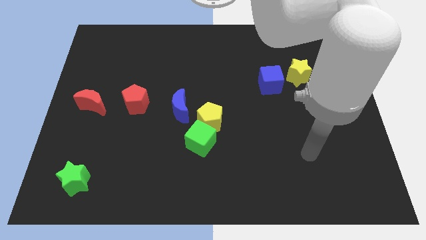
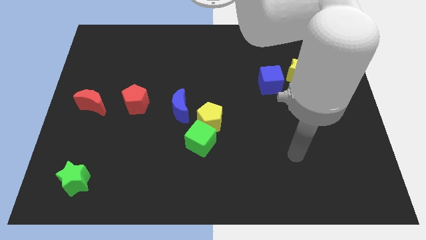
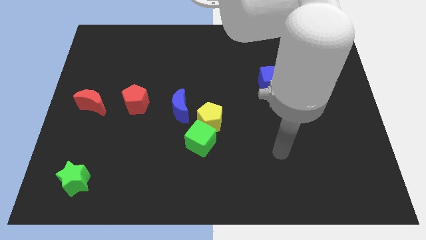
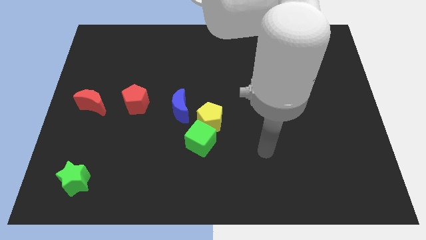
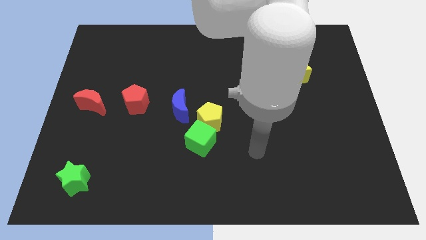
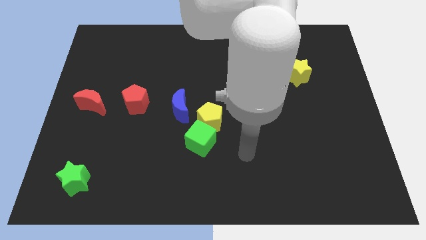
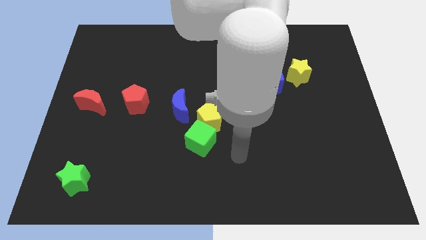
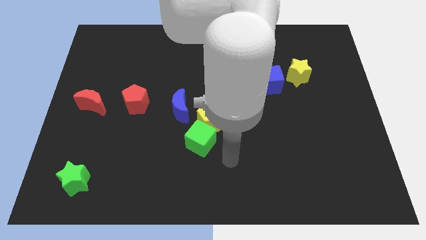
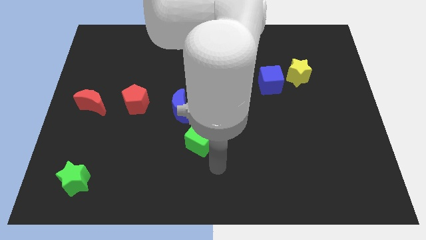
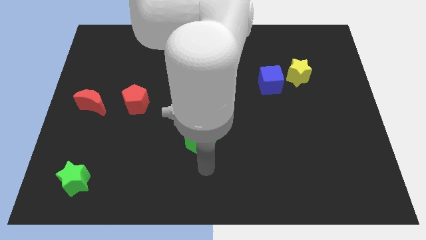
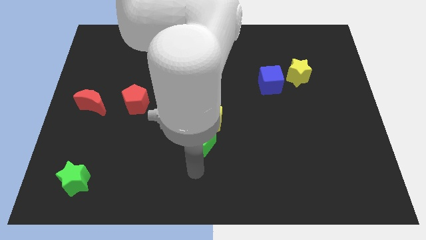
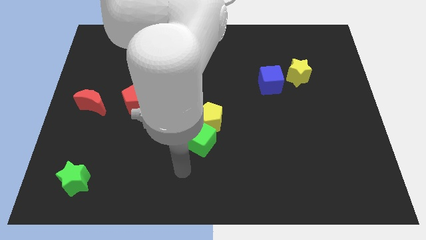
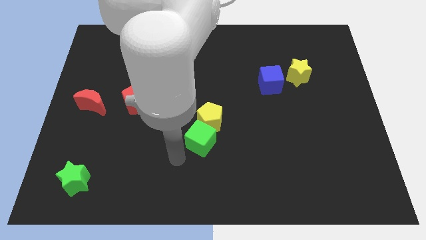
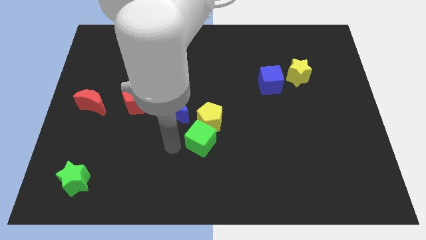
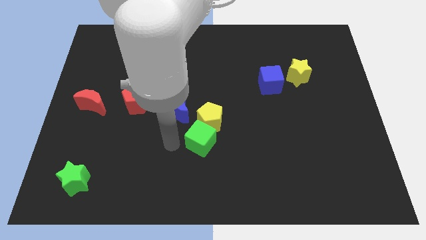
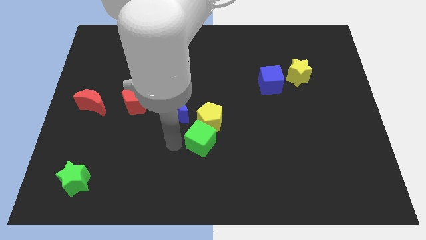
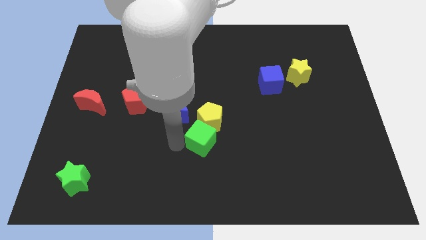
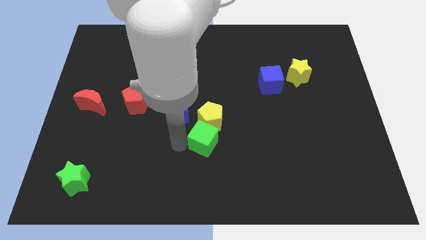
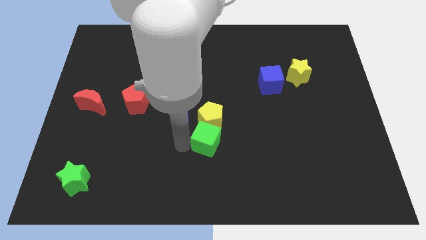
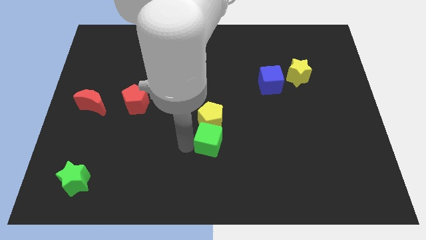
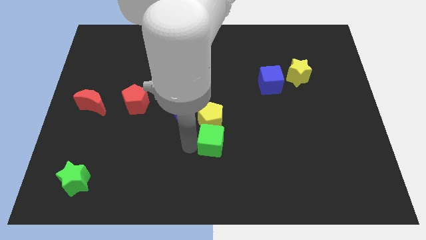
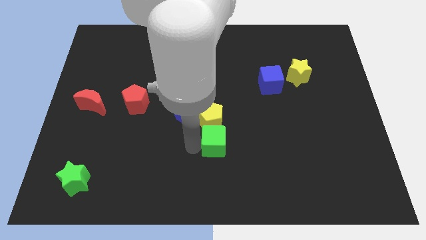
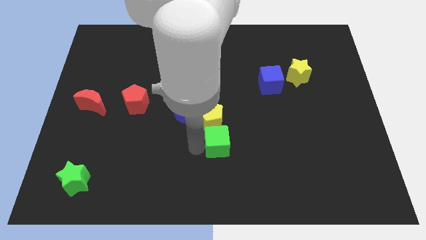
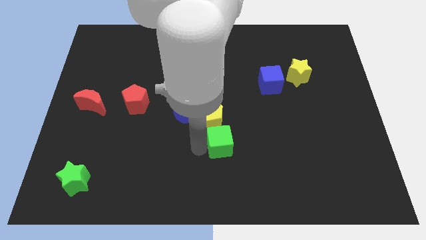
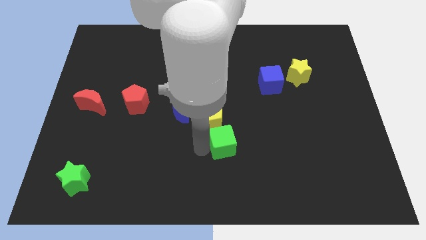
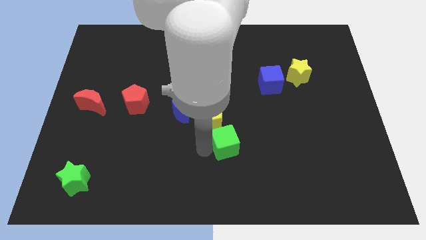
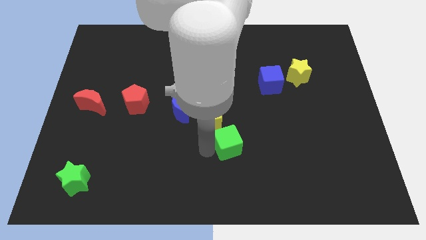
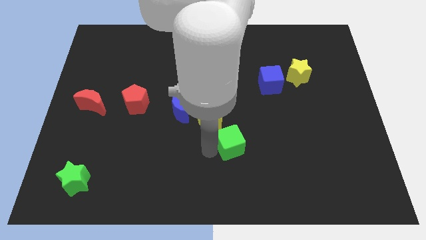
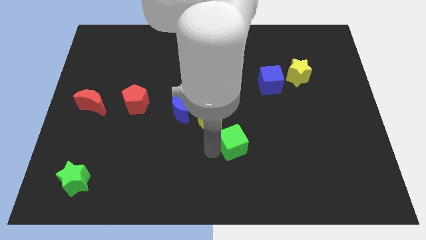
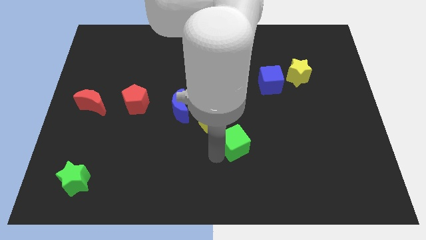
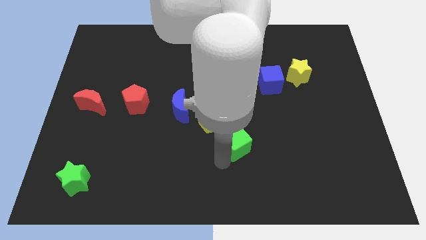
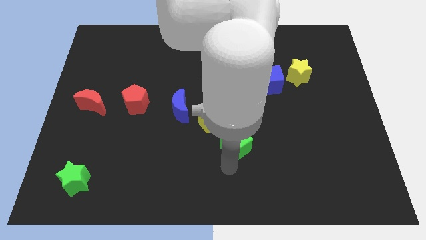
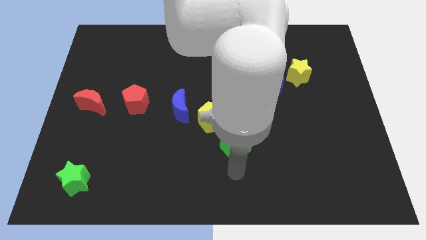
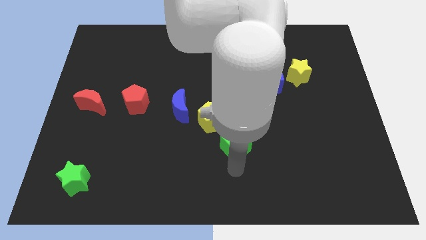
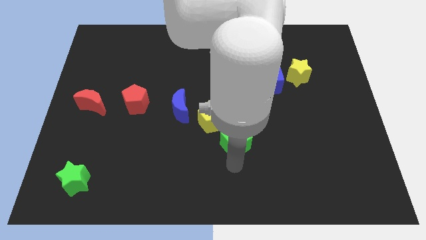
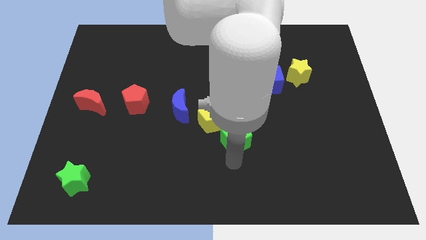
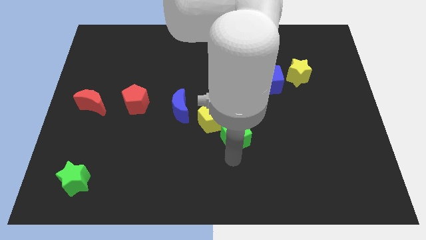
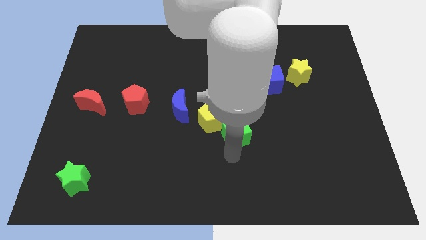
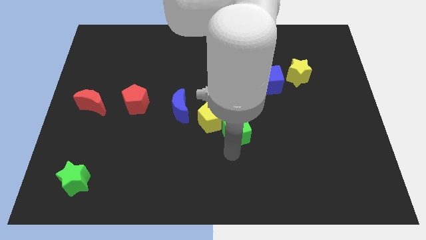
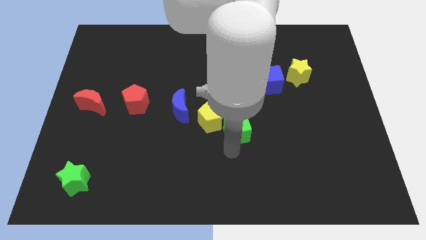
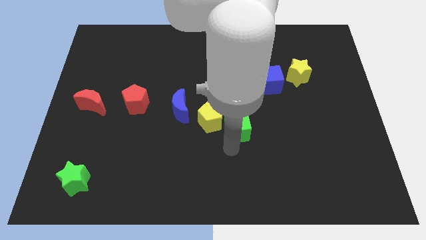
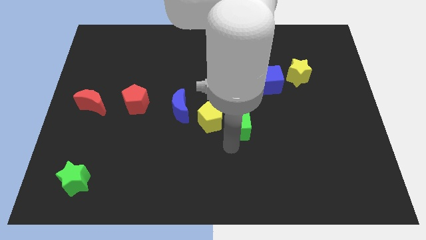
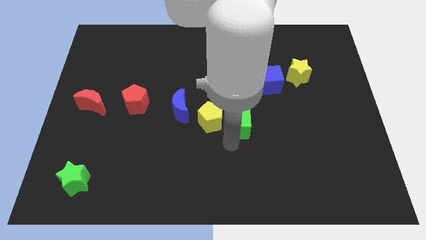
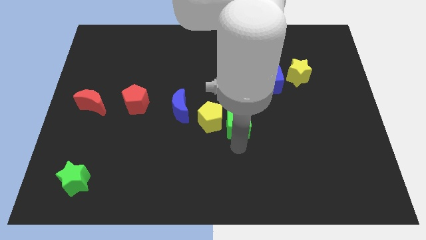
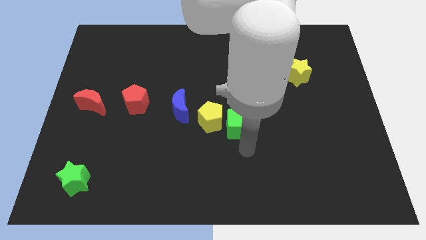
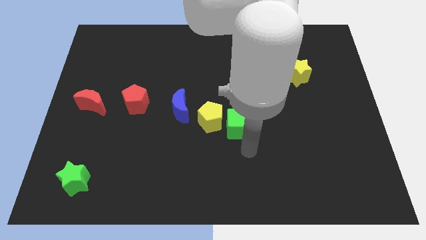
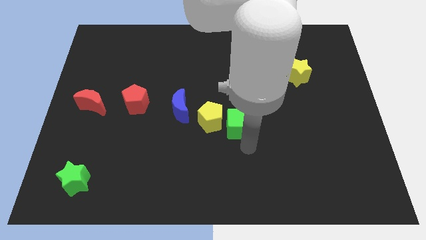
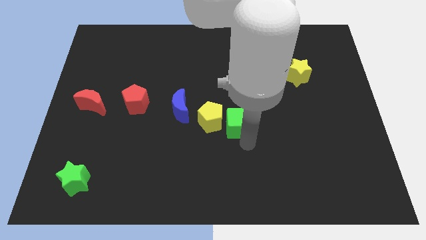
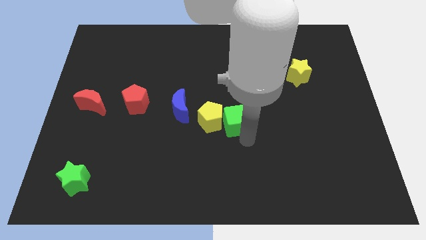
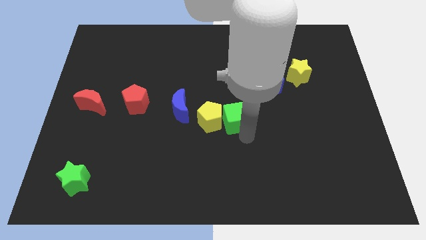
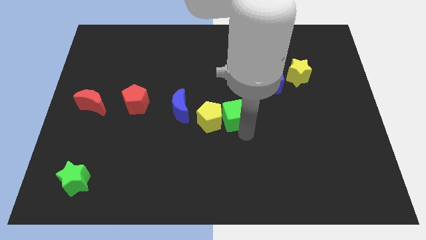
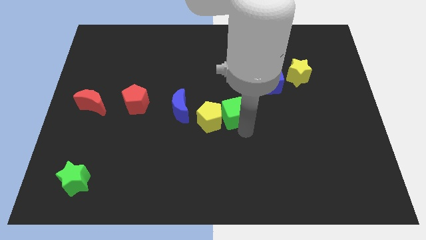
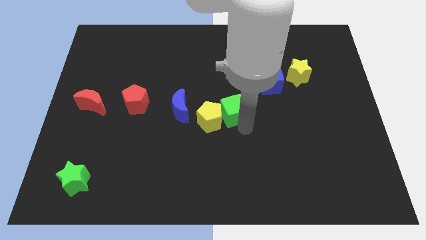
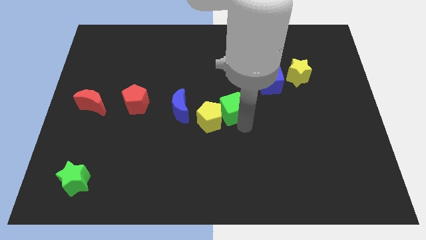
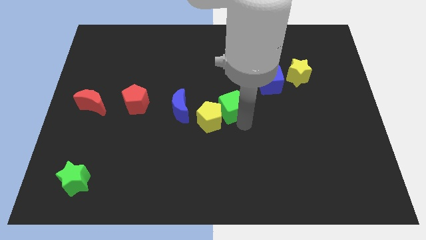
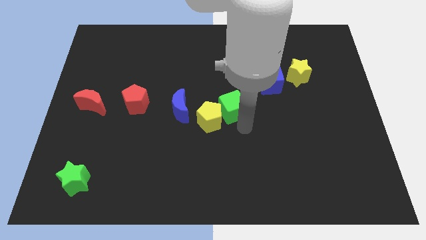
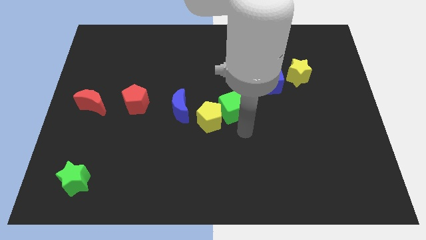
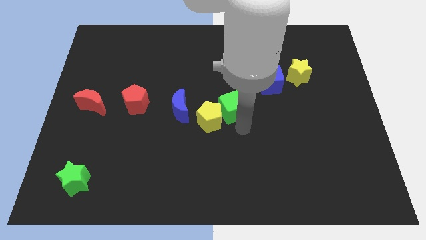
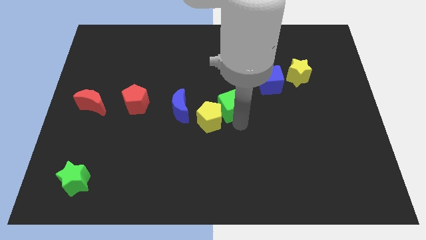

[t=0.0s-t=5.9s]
push the green cube up a bit

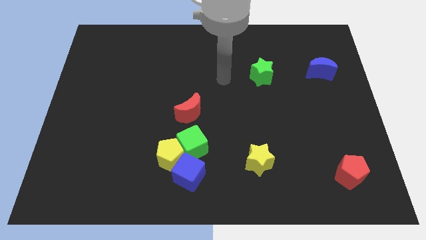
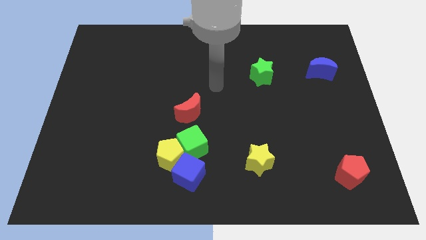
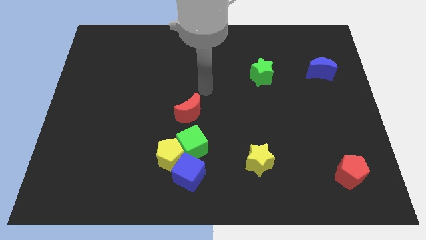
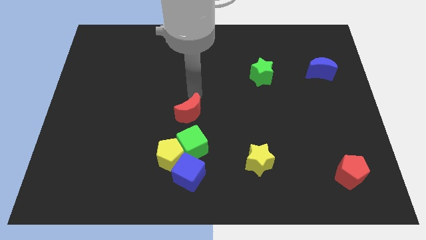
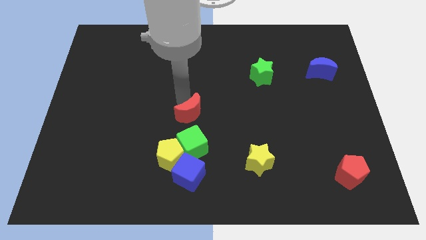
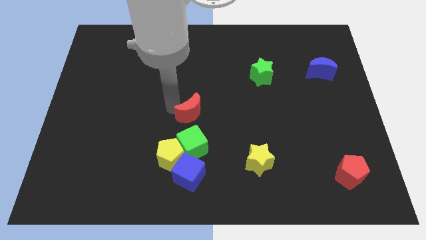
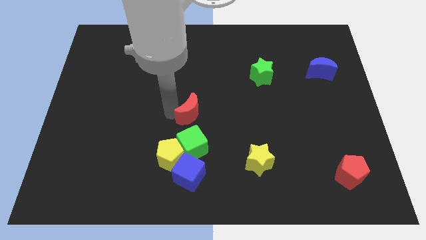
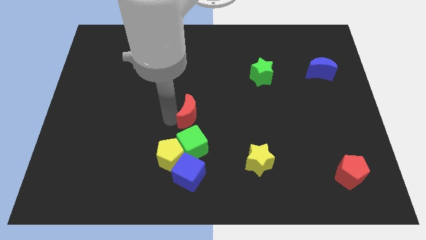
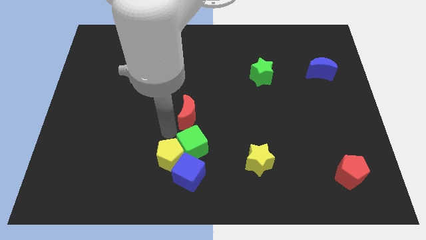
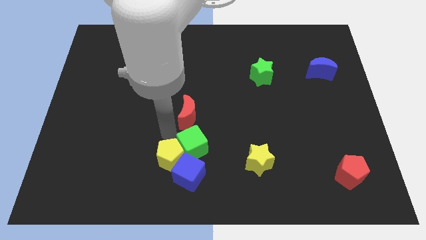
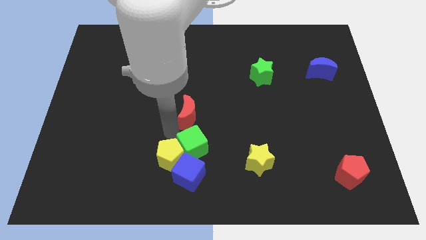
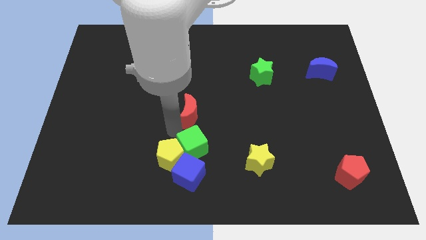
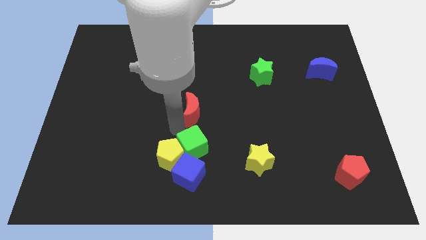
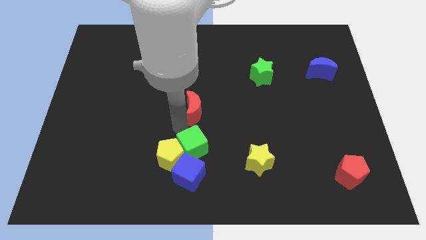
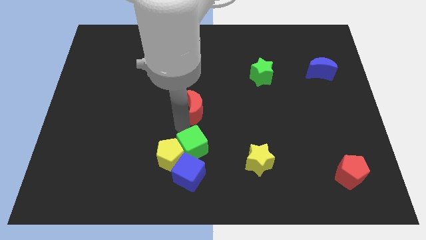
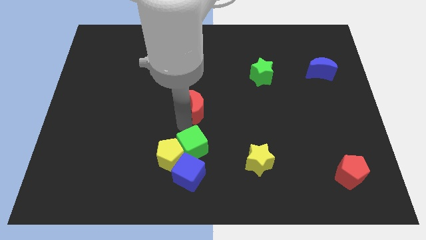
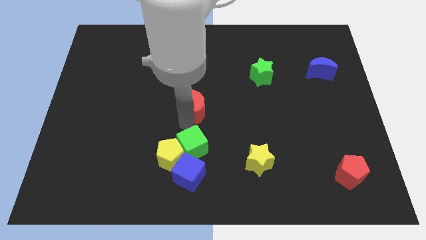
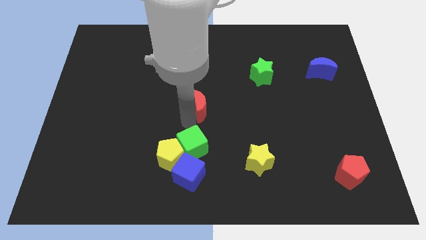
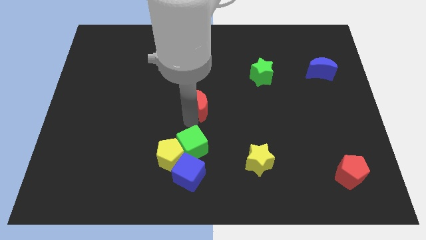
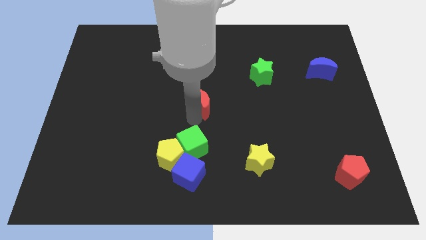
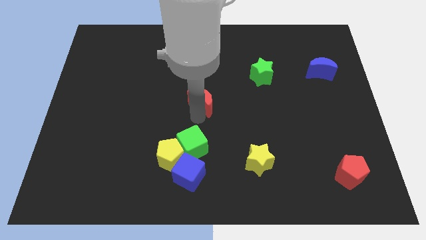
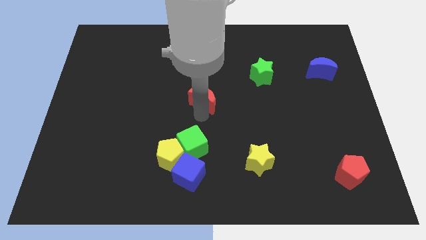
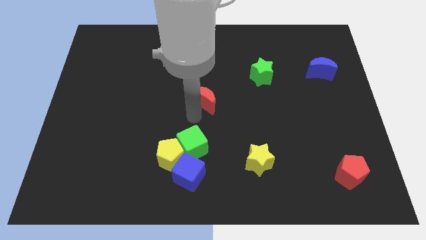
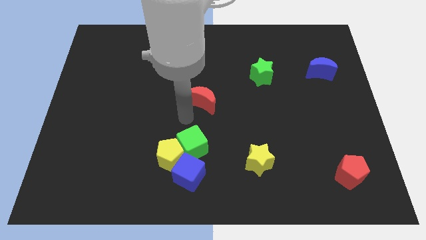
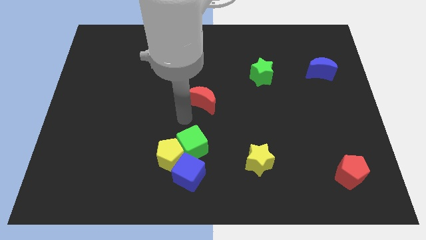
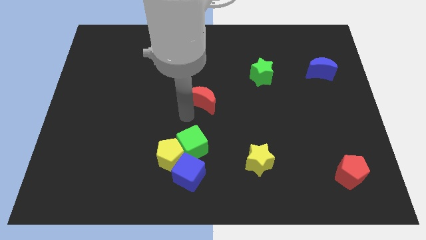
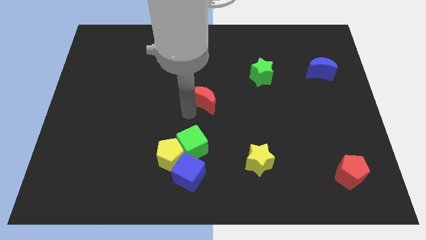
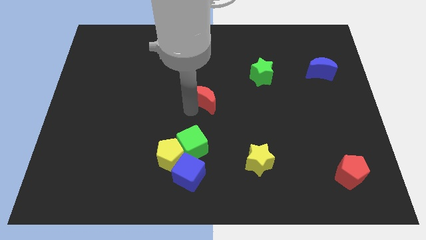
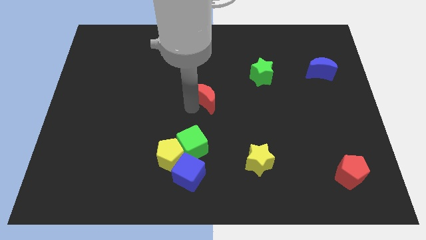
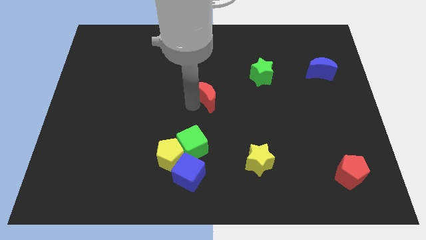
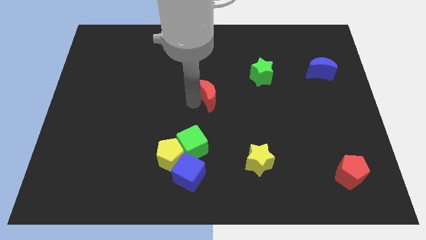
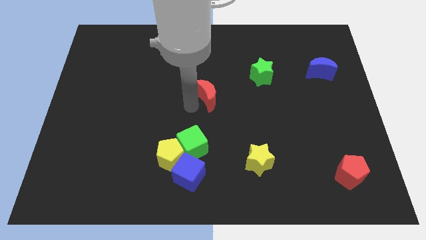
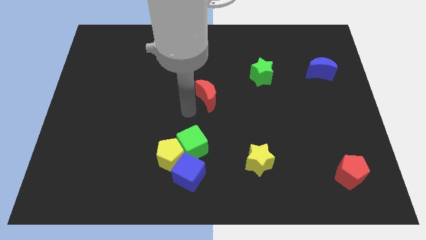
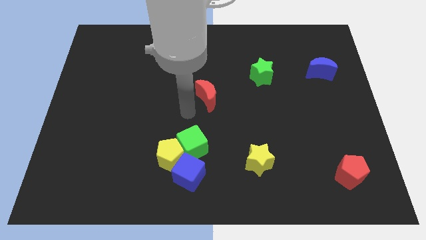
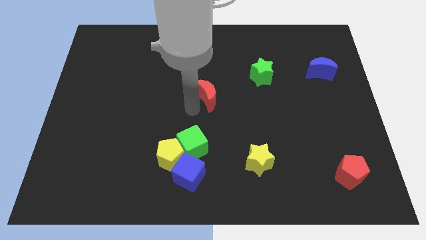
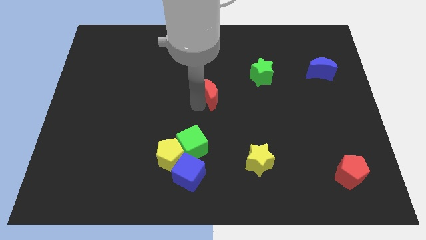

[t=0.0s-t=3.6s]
push the red moon somewhat up and to the right diagonally
